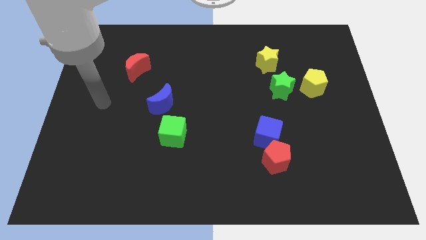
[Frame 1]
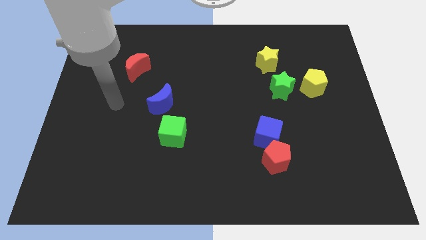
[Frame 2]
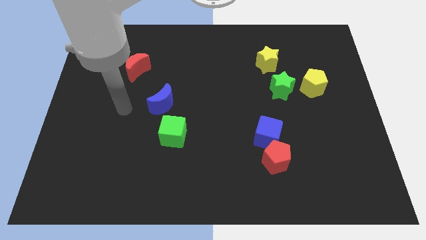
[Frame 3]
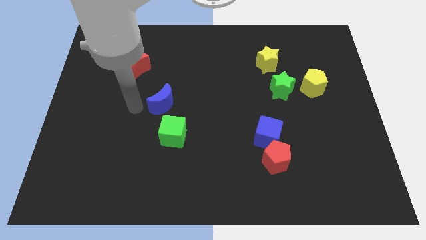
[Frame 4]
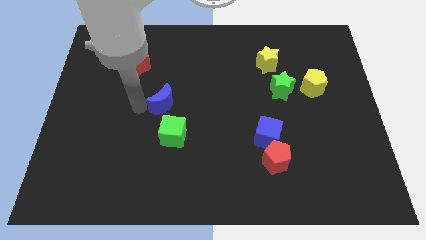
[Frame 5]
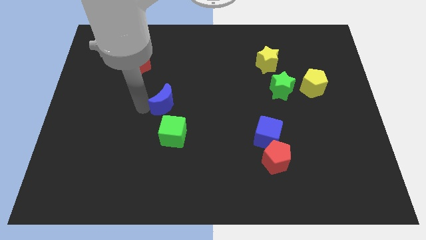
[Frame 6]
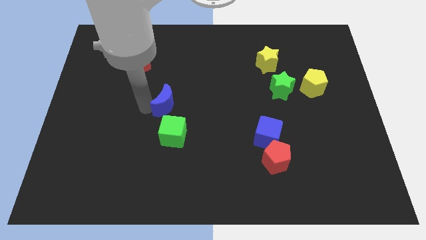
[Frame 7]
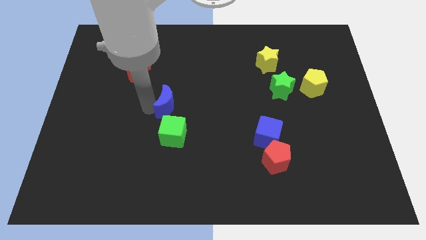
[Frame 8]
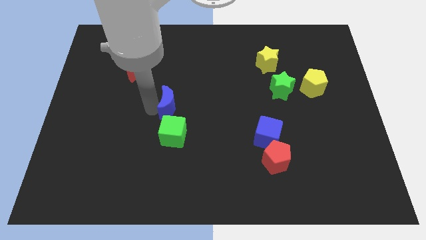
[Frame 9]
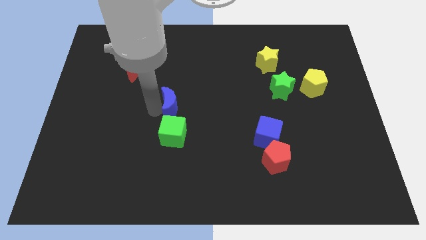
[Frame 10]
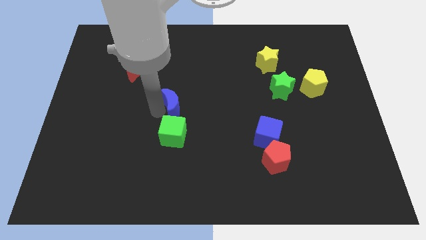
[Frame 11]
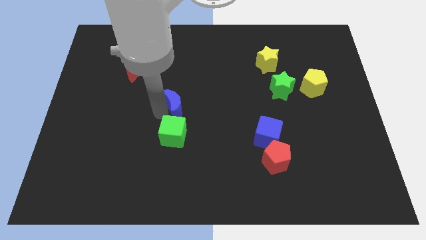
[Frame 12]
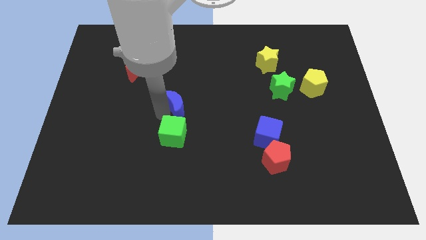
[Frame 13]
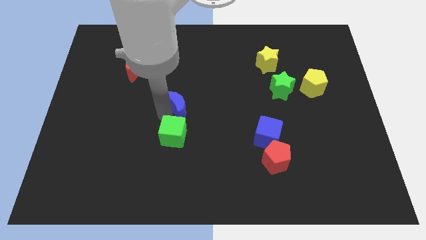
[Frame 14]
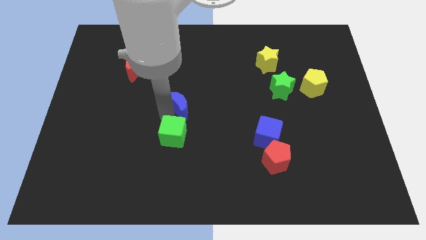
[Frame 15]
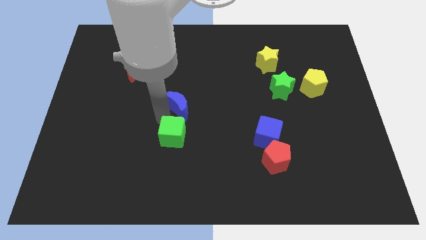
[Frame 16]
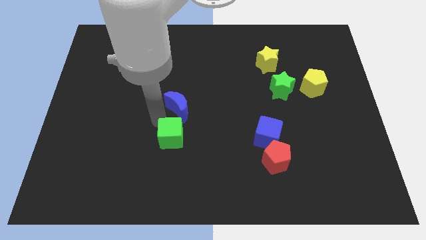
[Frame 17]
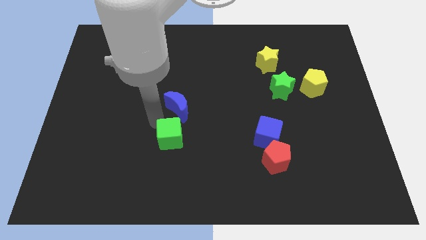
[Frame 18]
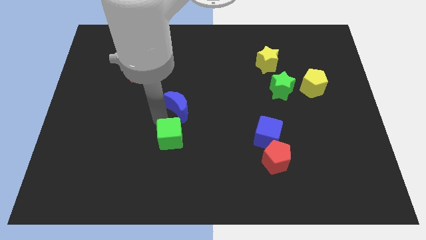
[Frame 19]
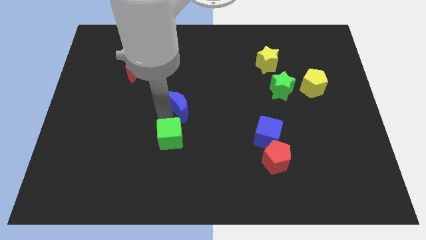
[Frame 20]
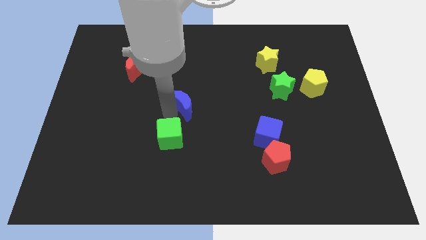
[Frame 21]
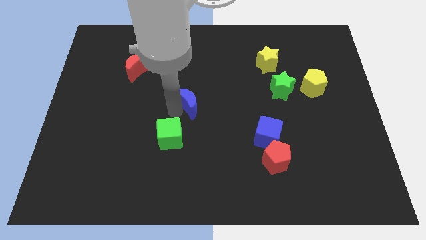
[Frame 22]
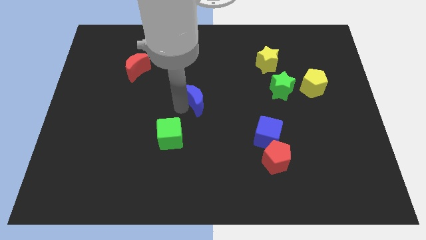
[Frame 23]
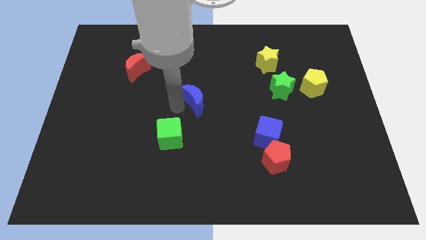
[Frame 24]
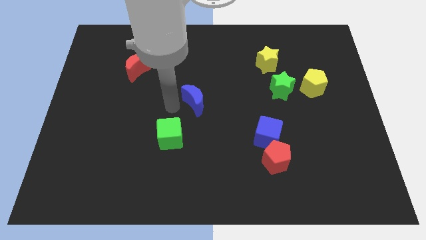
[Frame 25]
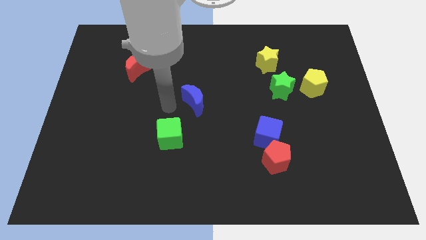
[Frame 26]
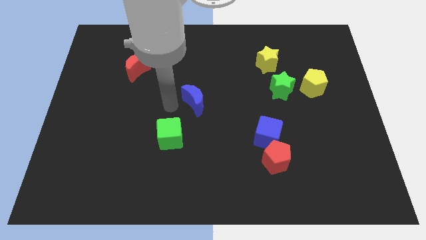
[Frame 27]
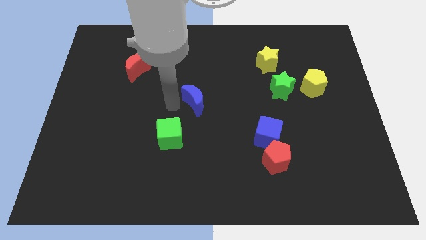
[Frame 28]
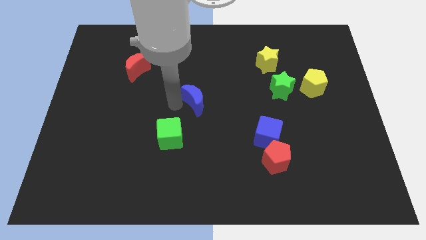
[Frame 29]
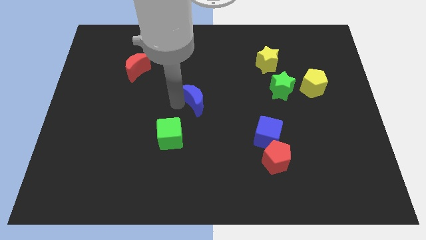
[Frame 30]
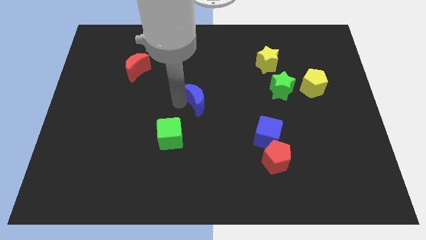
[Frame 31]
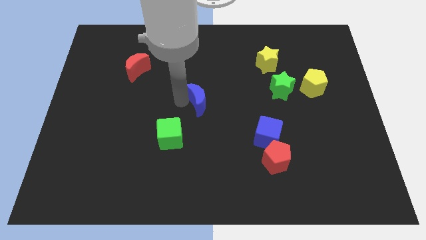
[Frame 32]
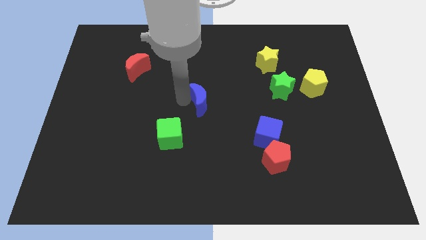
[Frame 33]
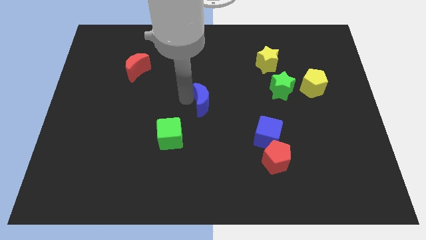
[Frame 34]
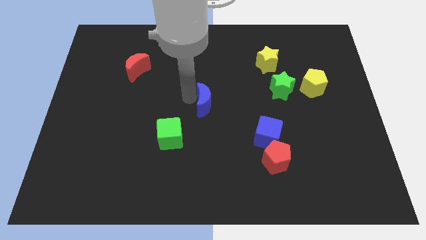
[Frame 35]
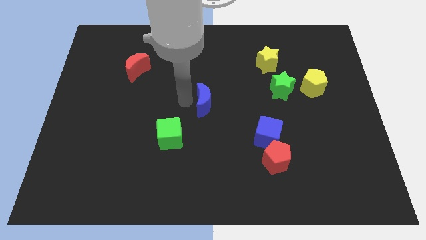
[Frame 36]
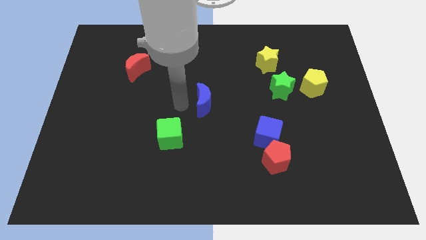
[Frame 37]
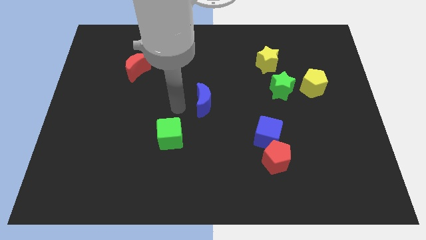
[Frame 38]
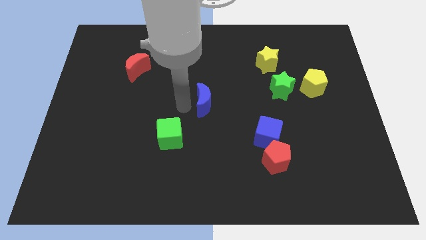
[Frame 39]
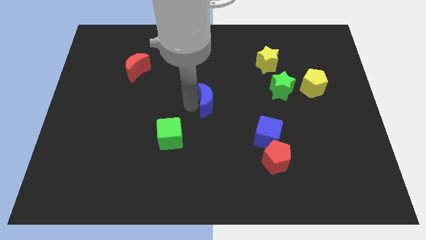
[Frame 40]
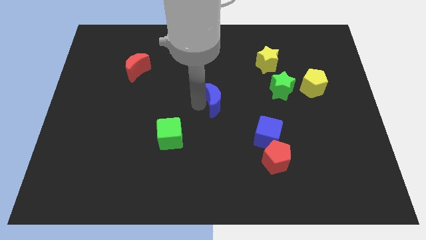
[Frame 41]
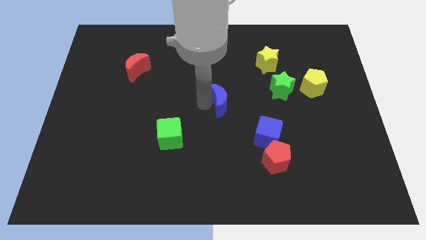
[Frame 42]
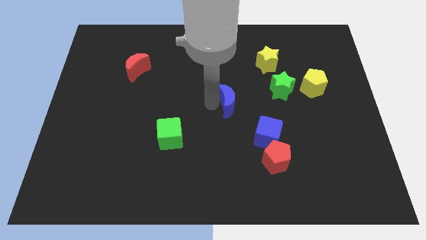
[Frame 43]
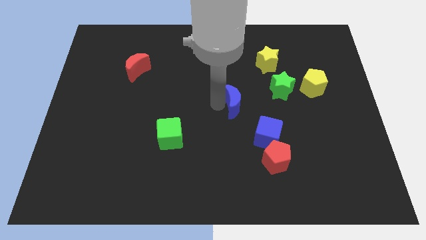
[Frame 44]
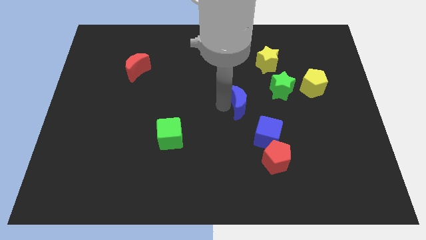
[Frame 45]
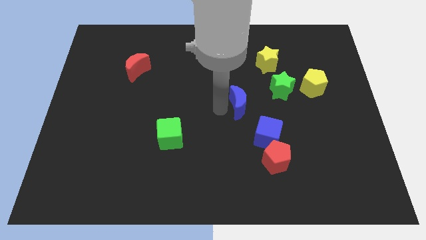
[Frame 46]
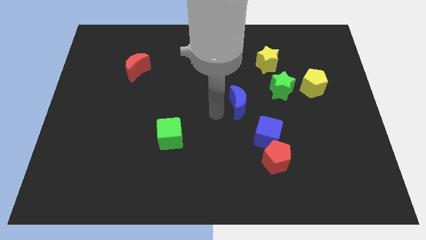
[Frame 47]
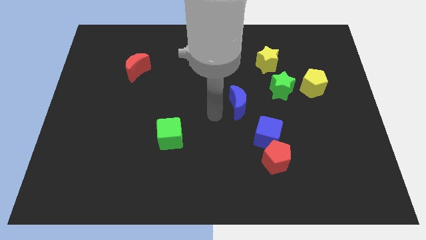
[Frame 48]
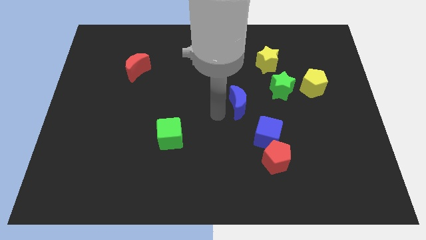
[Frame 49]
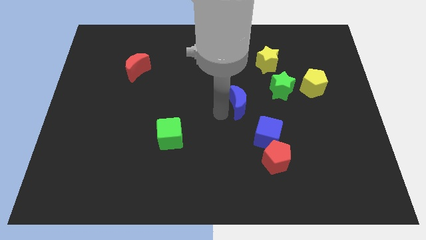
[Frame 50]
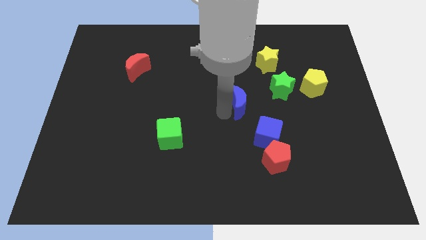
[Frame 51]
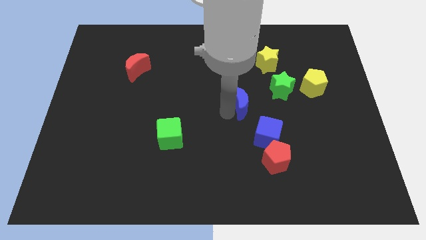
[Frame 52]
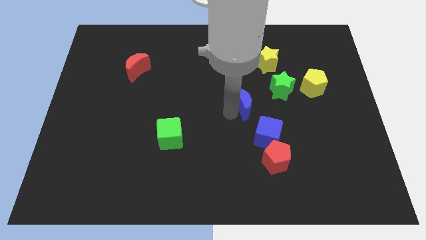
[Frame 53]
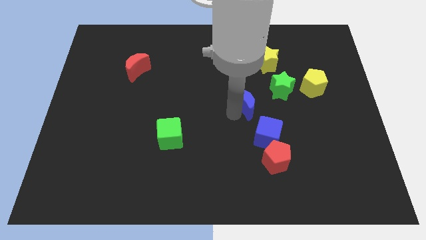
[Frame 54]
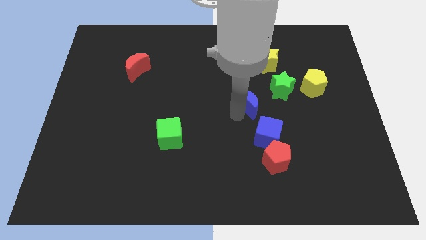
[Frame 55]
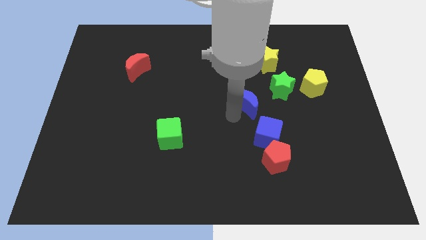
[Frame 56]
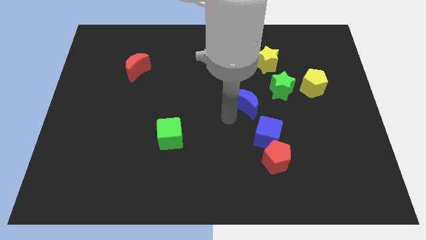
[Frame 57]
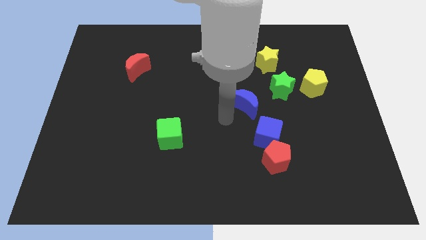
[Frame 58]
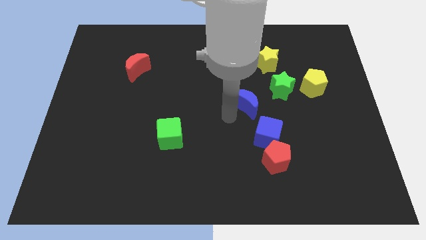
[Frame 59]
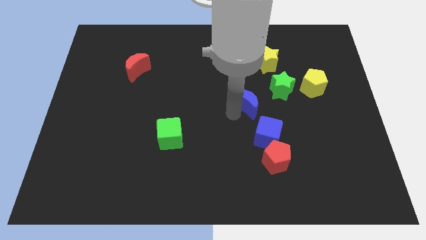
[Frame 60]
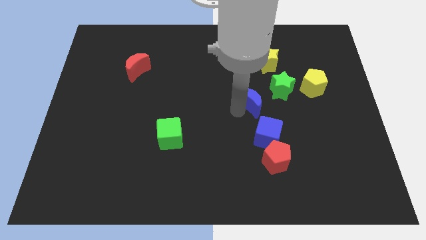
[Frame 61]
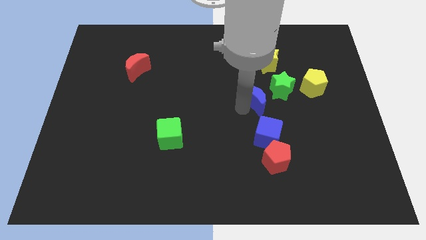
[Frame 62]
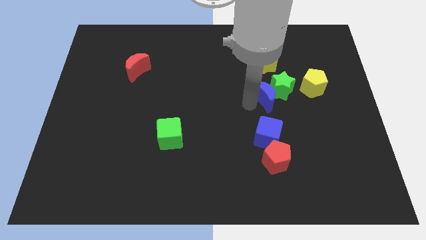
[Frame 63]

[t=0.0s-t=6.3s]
push the blue moon next to the green star

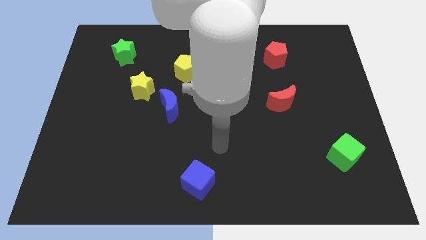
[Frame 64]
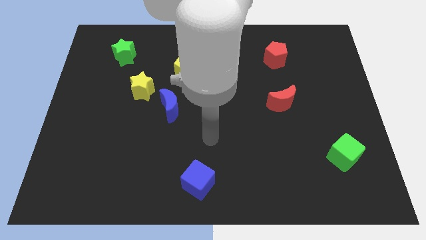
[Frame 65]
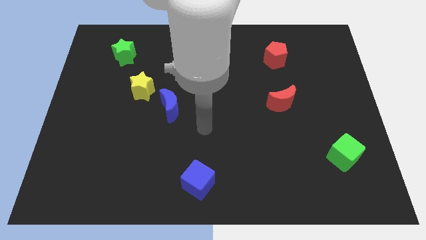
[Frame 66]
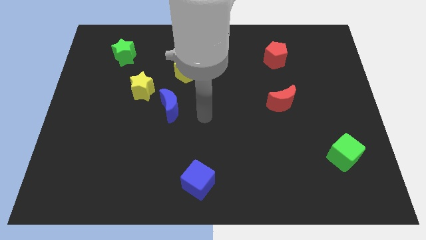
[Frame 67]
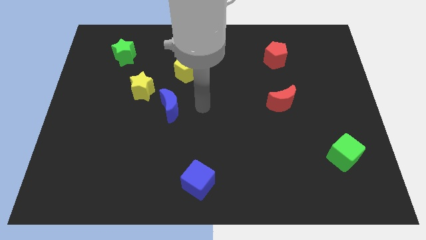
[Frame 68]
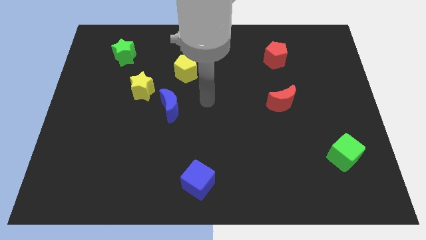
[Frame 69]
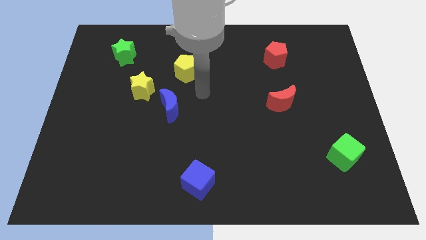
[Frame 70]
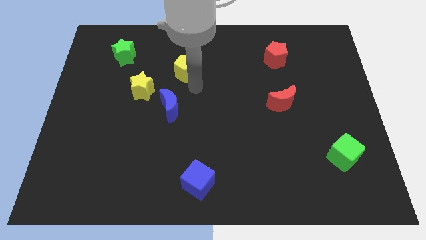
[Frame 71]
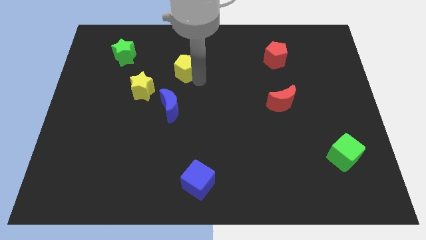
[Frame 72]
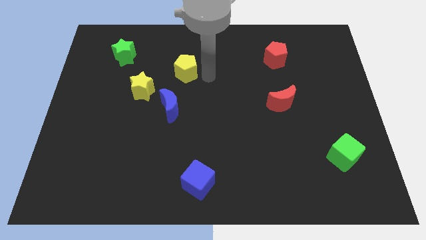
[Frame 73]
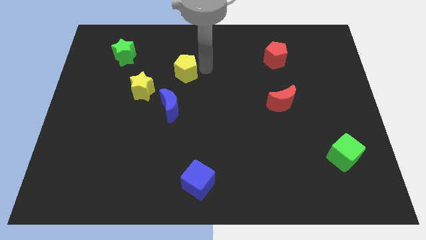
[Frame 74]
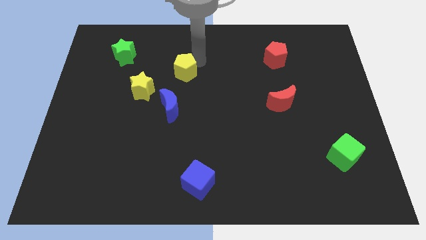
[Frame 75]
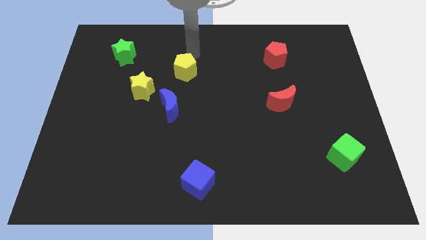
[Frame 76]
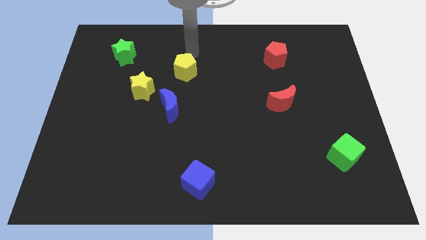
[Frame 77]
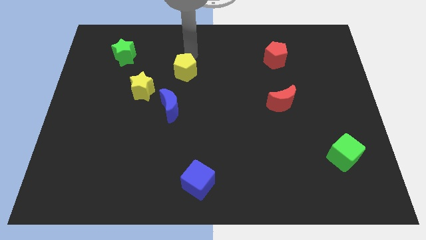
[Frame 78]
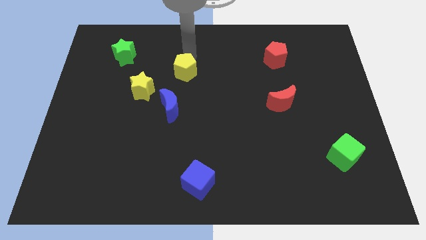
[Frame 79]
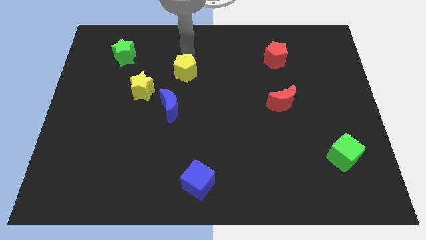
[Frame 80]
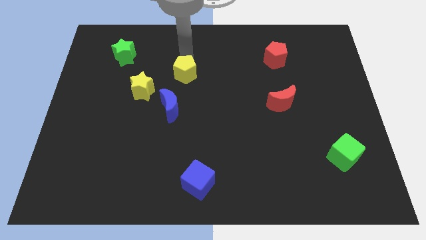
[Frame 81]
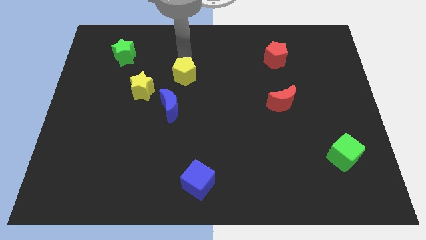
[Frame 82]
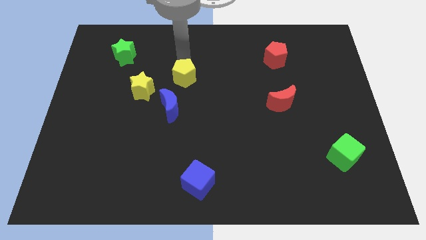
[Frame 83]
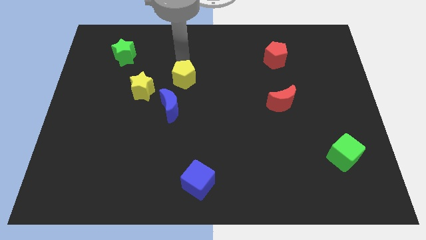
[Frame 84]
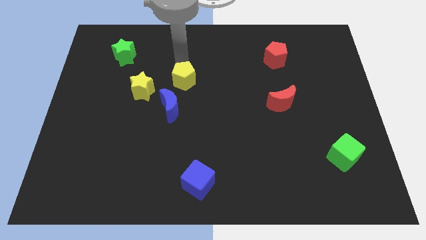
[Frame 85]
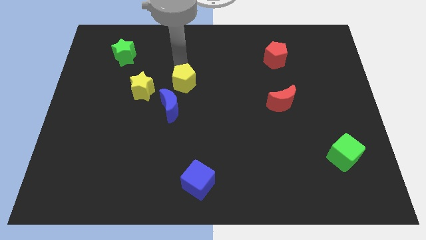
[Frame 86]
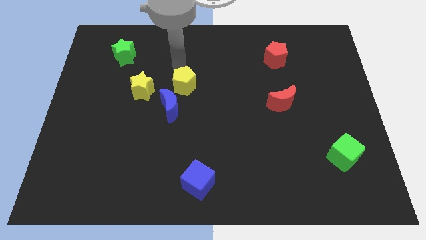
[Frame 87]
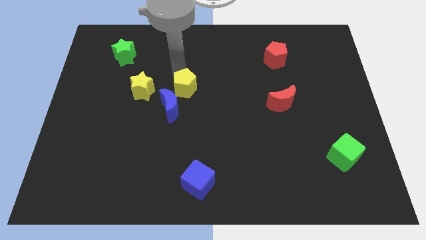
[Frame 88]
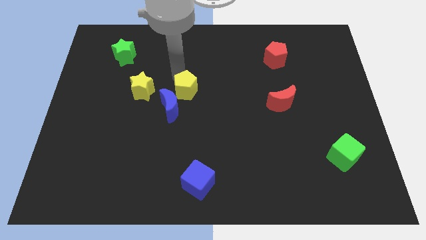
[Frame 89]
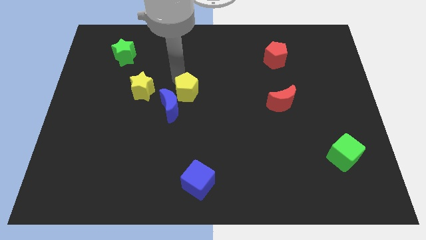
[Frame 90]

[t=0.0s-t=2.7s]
put the yellow pentagon towards the blue moon
